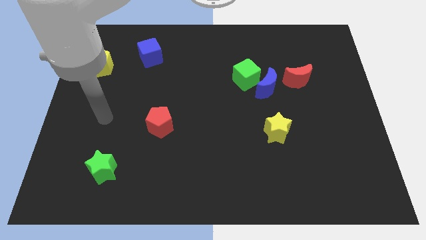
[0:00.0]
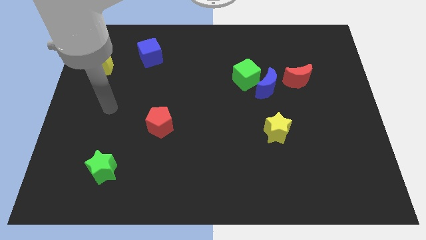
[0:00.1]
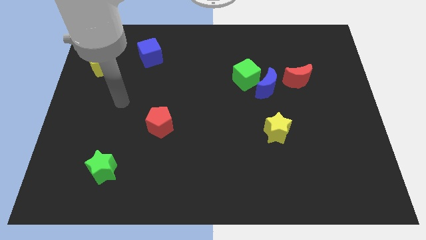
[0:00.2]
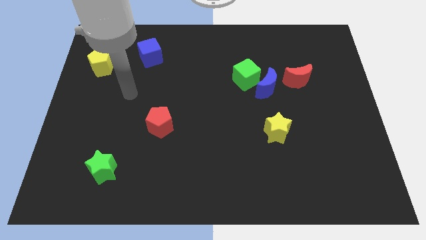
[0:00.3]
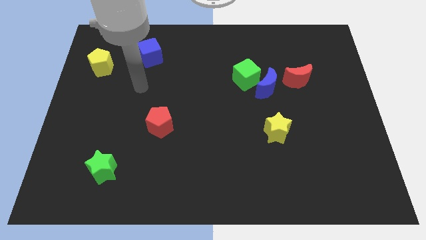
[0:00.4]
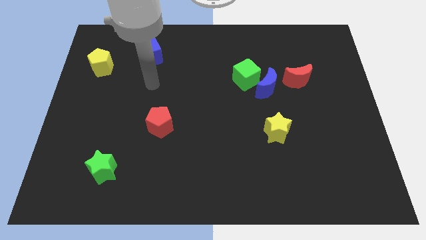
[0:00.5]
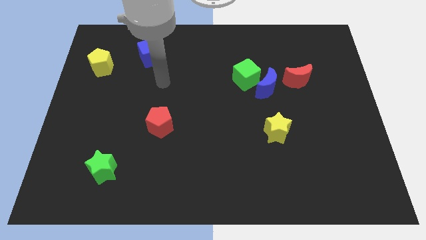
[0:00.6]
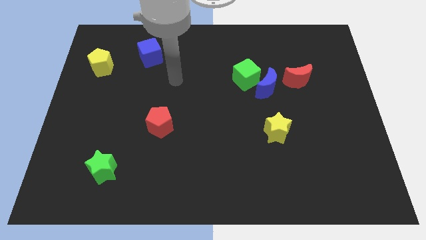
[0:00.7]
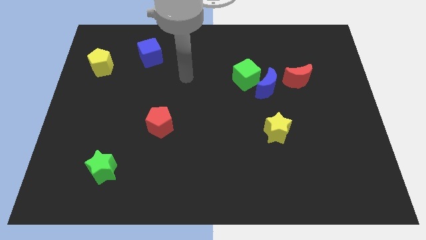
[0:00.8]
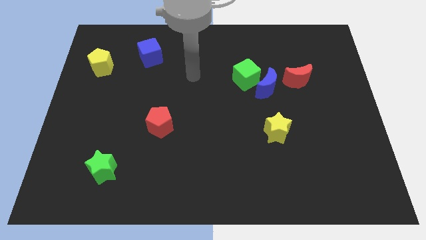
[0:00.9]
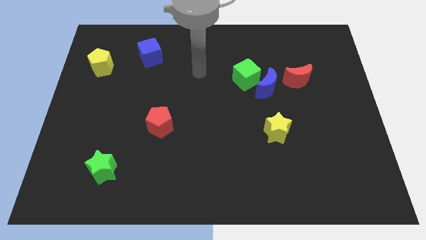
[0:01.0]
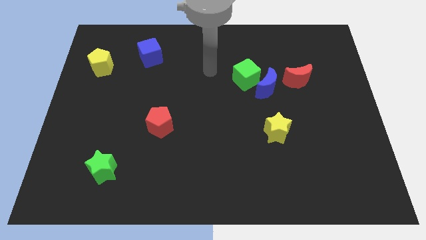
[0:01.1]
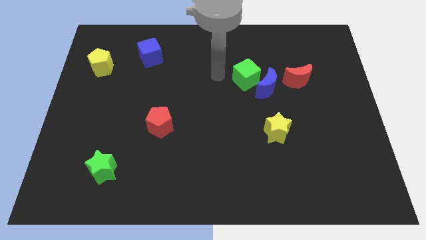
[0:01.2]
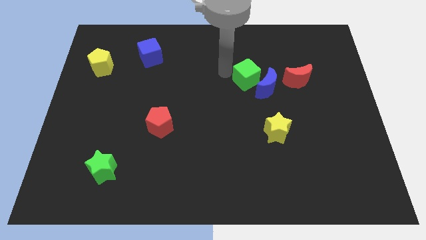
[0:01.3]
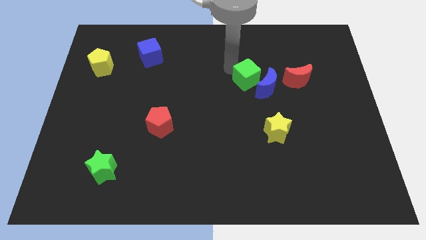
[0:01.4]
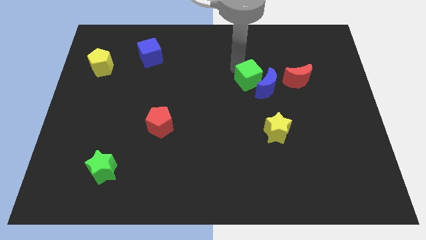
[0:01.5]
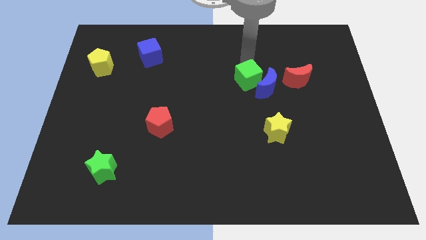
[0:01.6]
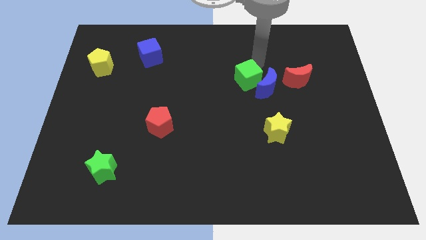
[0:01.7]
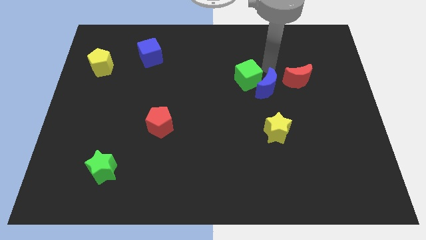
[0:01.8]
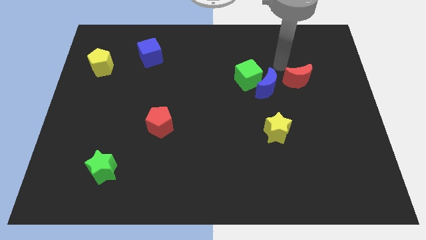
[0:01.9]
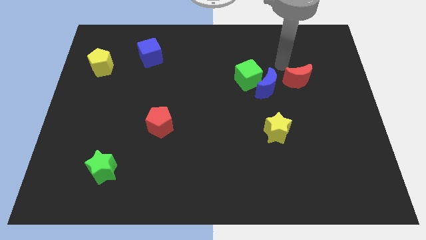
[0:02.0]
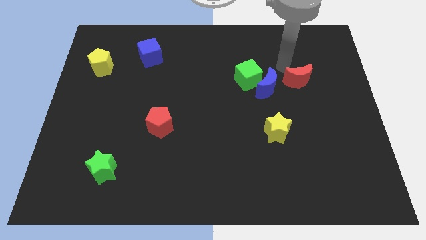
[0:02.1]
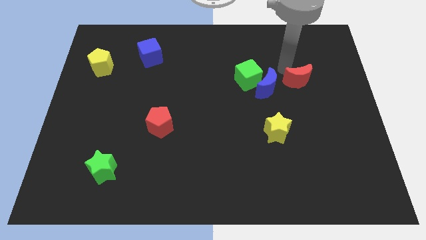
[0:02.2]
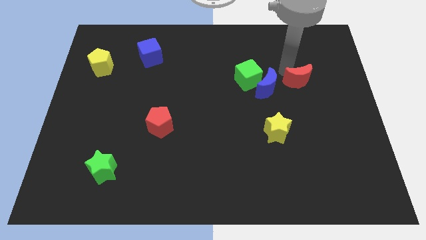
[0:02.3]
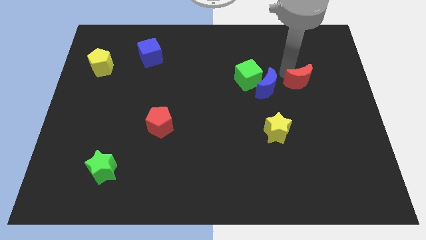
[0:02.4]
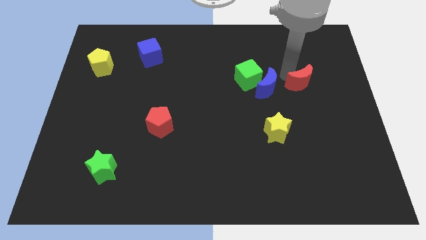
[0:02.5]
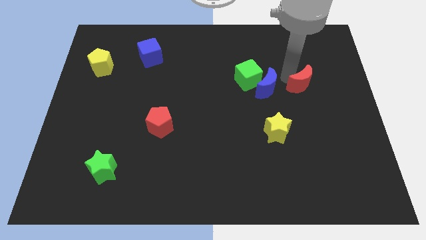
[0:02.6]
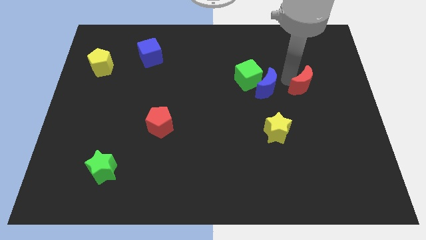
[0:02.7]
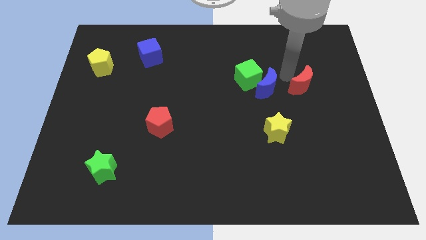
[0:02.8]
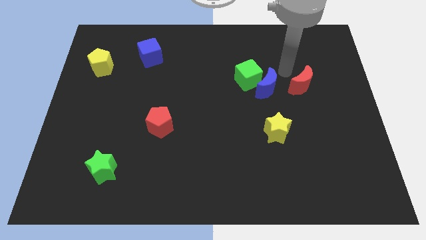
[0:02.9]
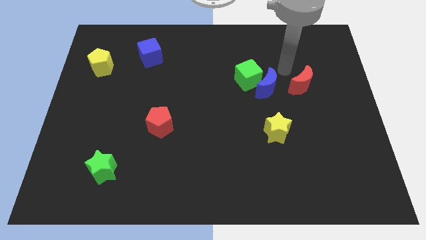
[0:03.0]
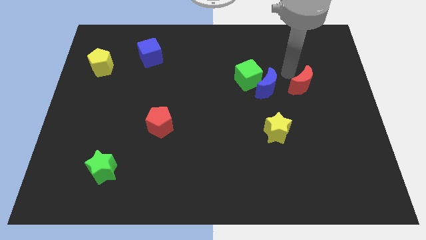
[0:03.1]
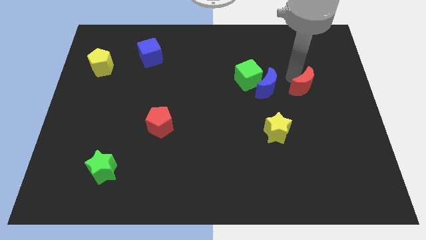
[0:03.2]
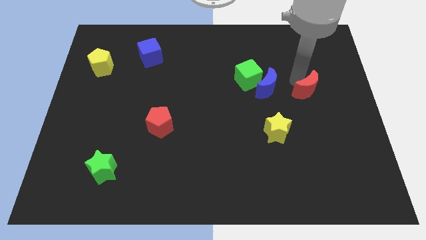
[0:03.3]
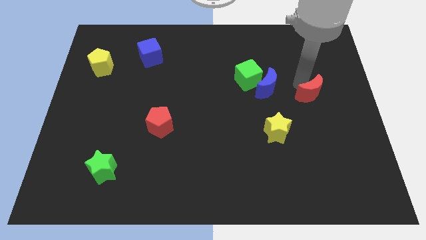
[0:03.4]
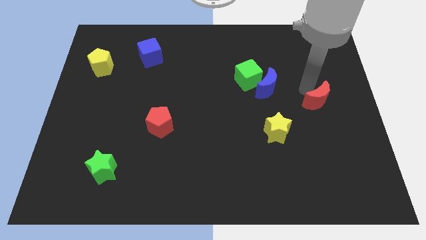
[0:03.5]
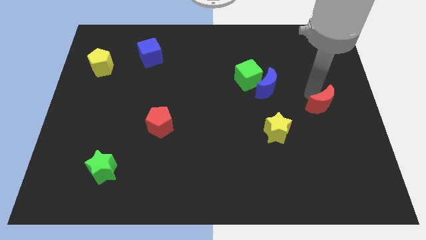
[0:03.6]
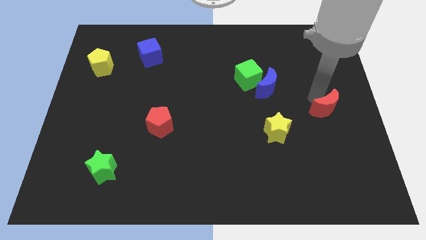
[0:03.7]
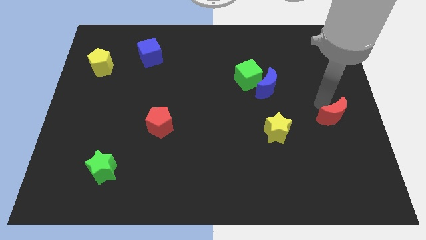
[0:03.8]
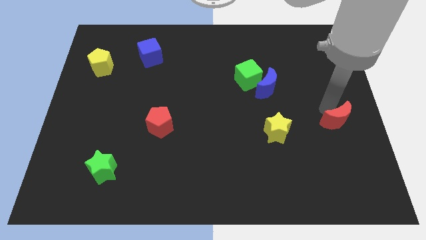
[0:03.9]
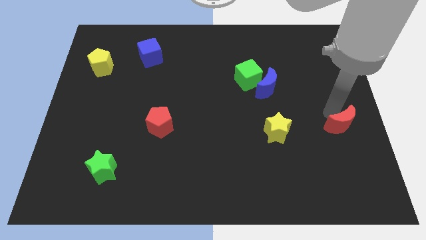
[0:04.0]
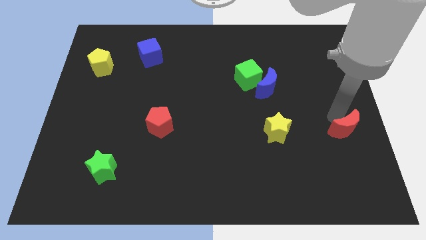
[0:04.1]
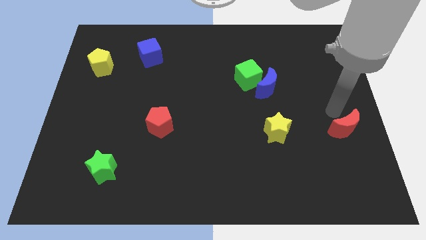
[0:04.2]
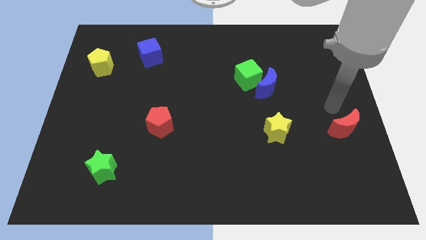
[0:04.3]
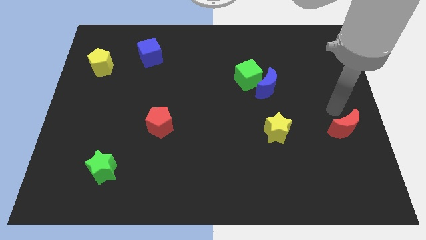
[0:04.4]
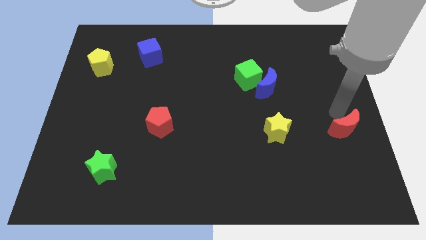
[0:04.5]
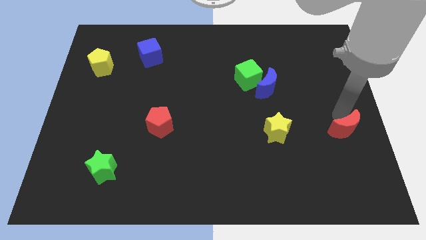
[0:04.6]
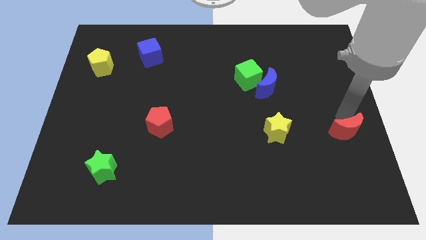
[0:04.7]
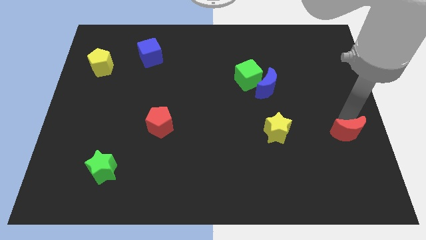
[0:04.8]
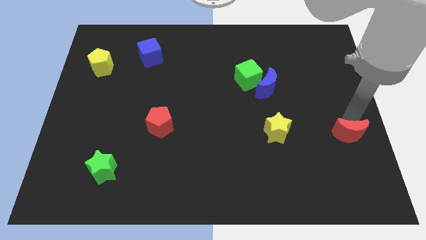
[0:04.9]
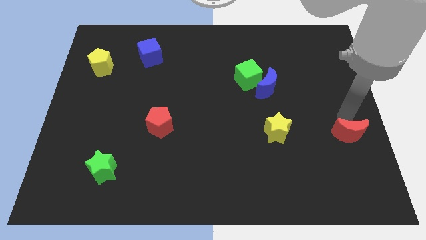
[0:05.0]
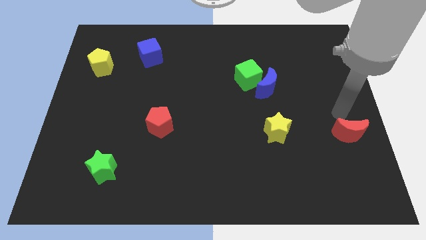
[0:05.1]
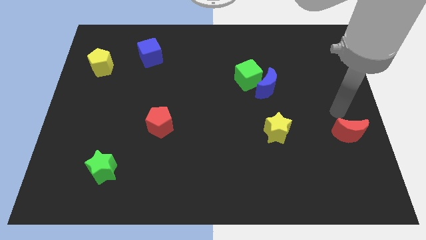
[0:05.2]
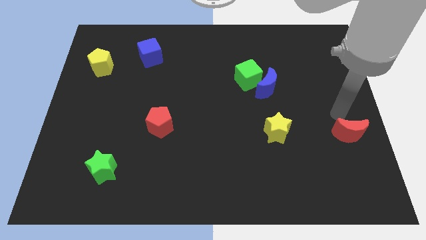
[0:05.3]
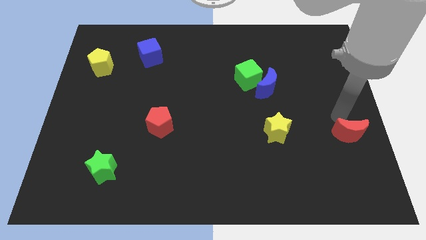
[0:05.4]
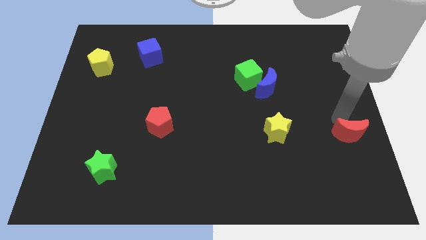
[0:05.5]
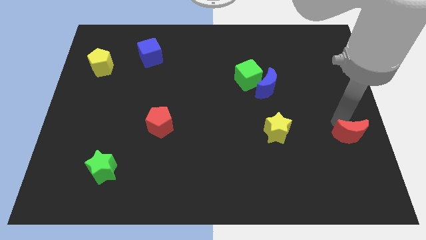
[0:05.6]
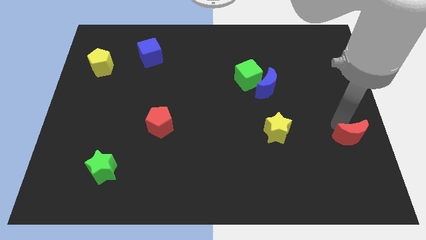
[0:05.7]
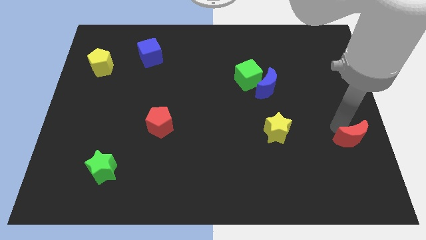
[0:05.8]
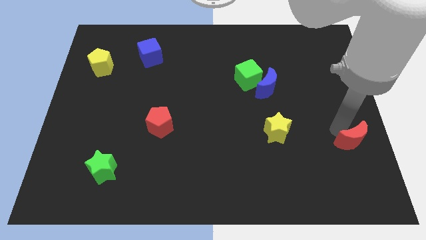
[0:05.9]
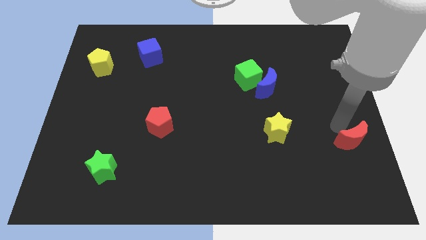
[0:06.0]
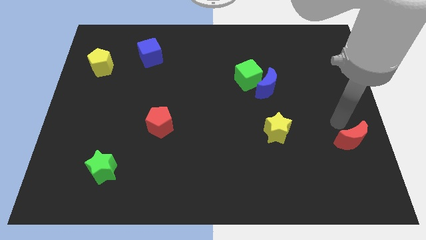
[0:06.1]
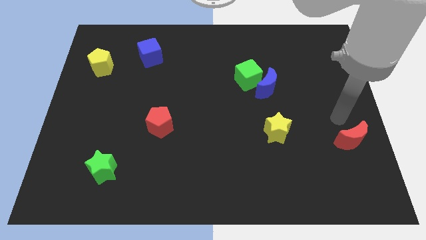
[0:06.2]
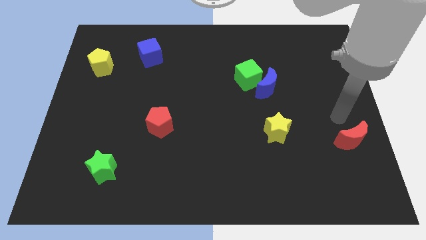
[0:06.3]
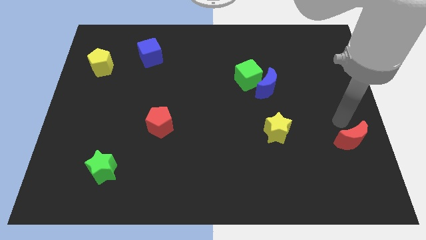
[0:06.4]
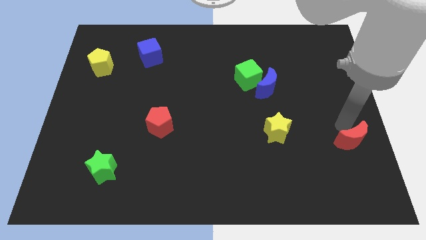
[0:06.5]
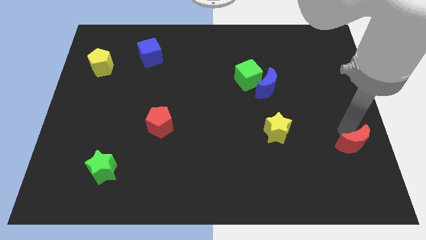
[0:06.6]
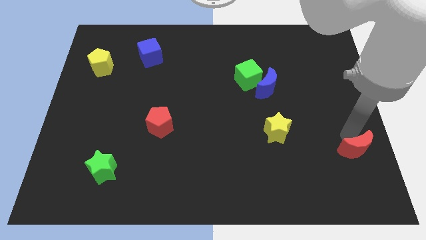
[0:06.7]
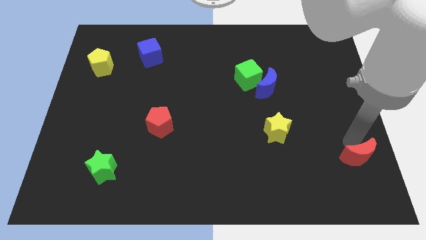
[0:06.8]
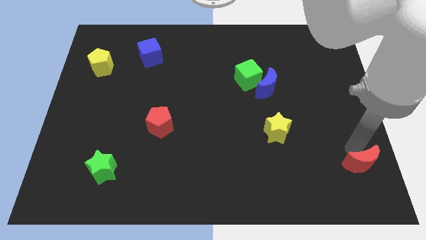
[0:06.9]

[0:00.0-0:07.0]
push the red moon to the bottom right
